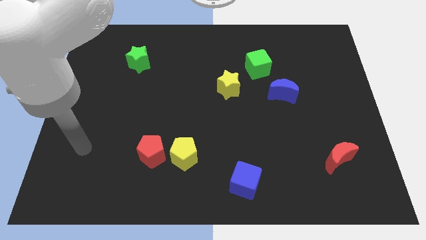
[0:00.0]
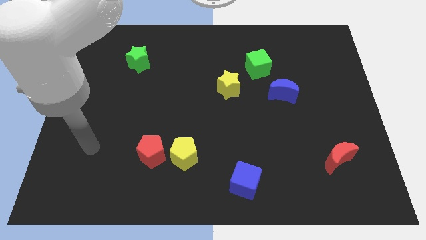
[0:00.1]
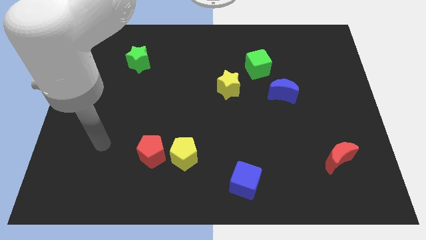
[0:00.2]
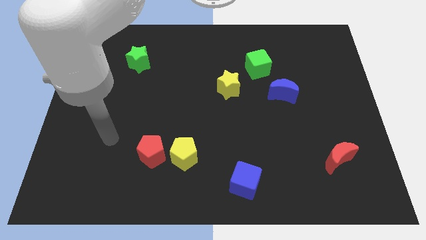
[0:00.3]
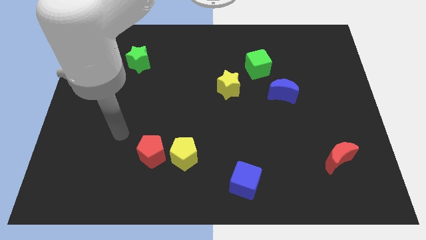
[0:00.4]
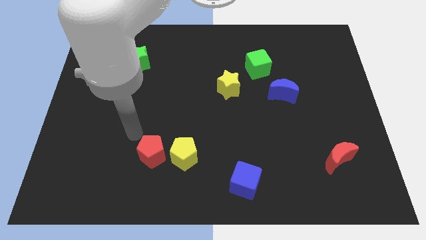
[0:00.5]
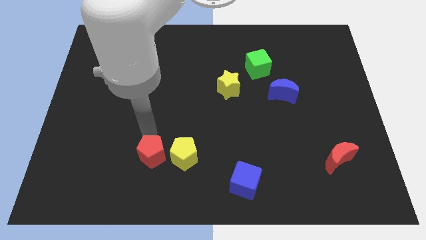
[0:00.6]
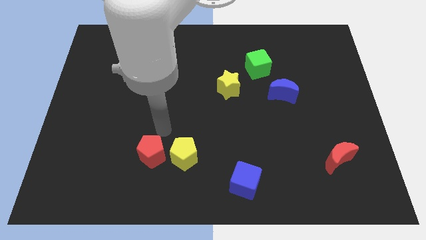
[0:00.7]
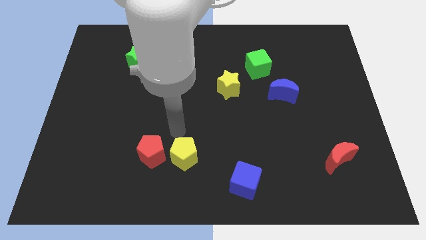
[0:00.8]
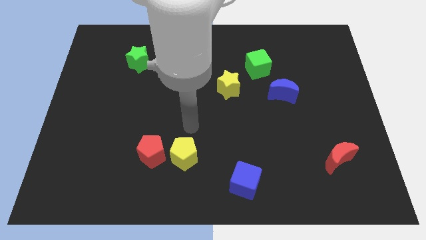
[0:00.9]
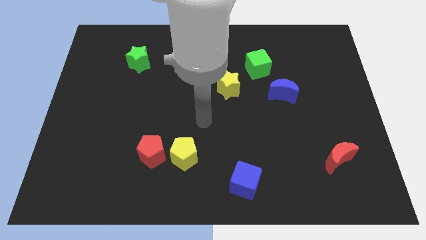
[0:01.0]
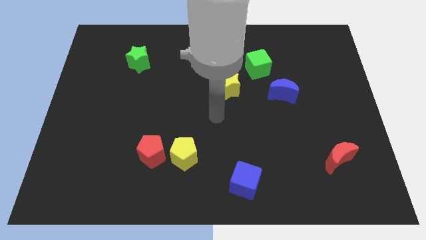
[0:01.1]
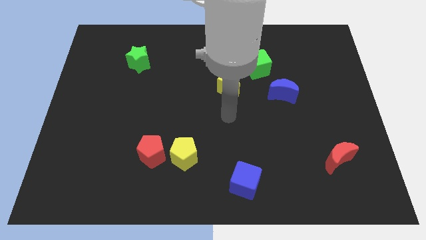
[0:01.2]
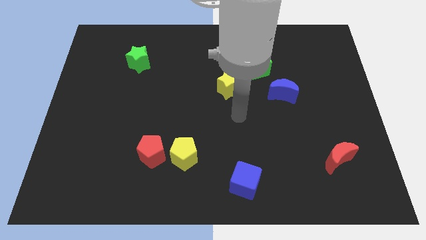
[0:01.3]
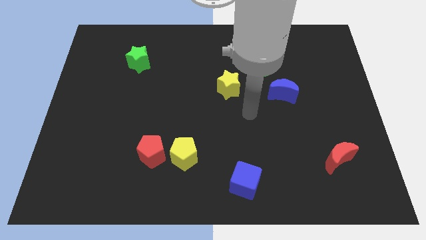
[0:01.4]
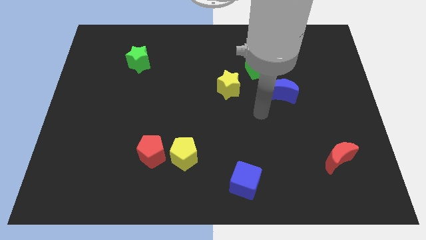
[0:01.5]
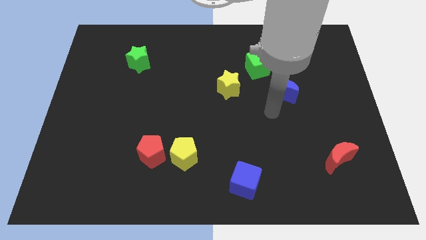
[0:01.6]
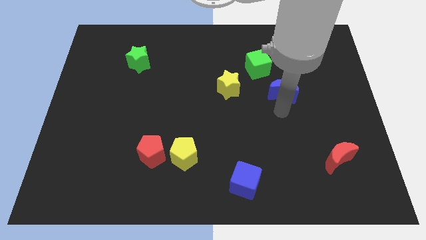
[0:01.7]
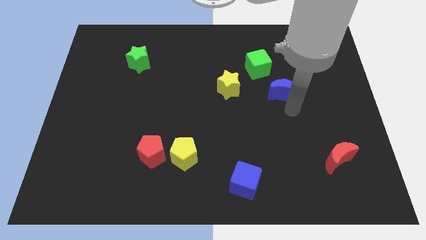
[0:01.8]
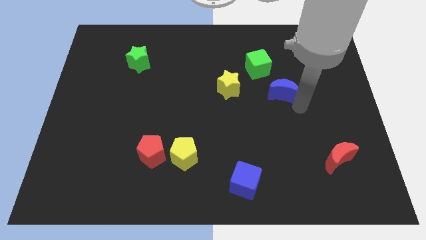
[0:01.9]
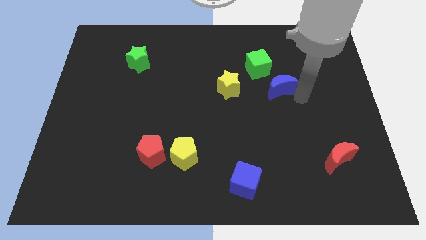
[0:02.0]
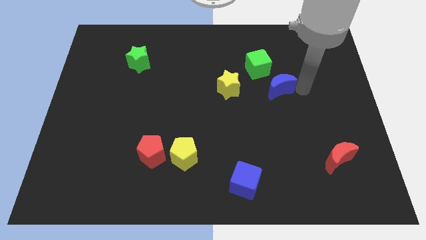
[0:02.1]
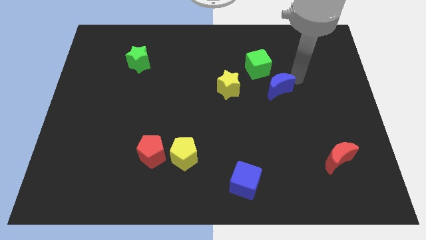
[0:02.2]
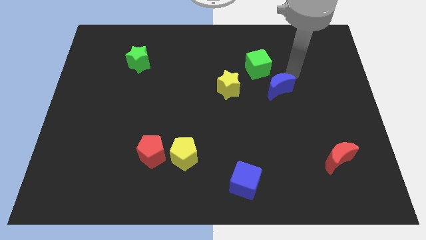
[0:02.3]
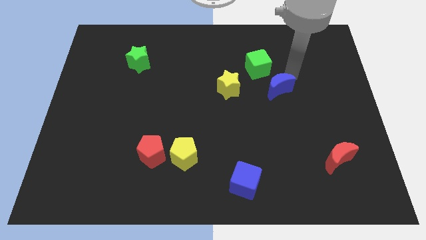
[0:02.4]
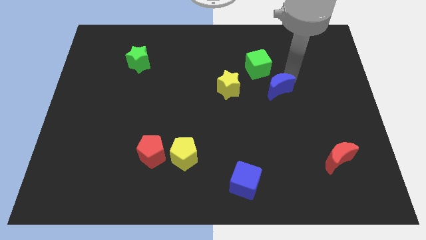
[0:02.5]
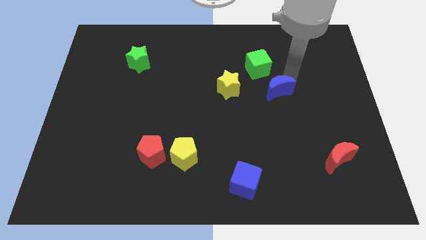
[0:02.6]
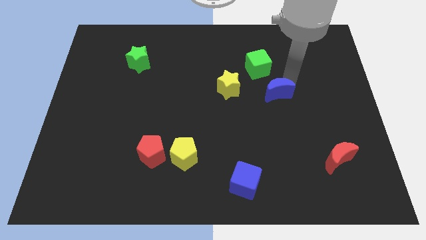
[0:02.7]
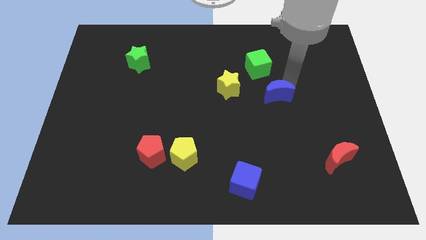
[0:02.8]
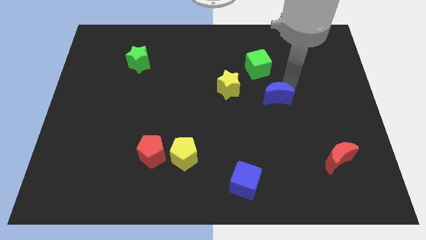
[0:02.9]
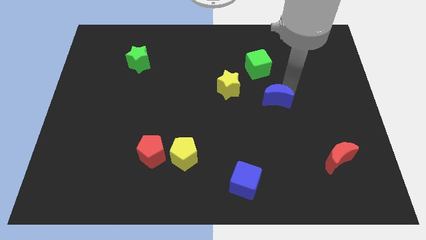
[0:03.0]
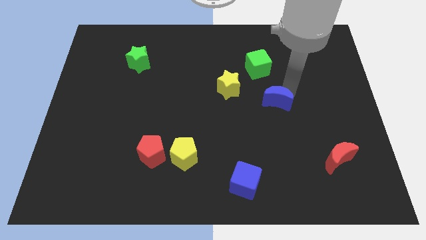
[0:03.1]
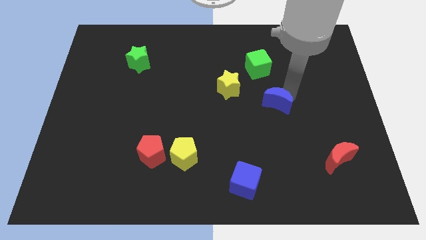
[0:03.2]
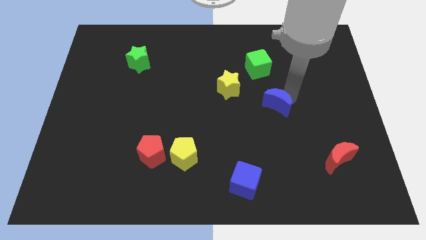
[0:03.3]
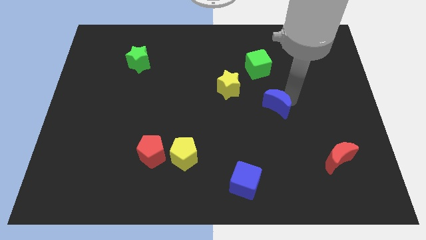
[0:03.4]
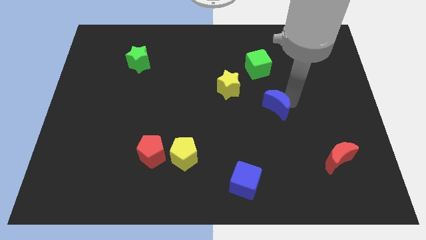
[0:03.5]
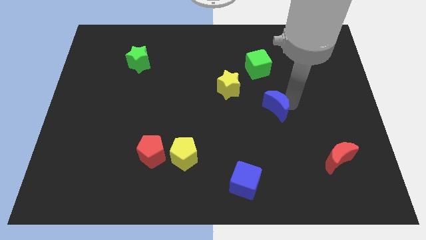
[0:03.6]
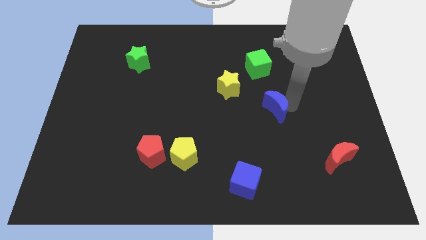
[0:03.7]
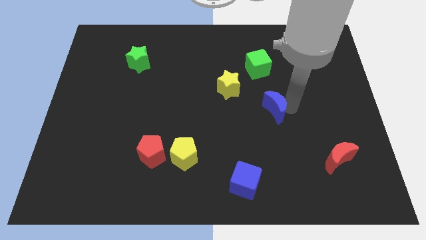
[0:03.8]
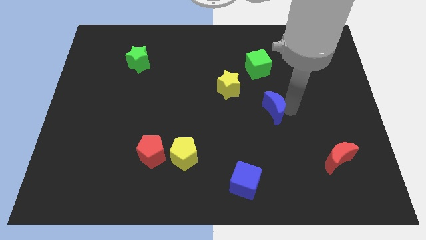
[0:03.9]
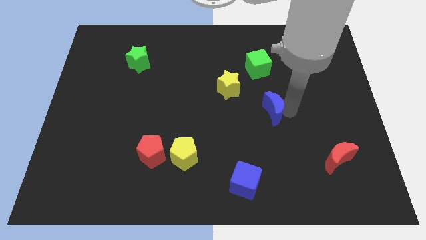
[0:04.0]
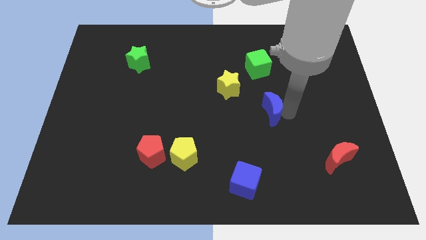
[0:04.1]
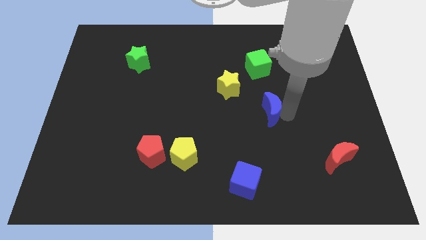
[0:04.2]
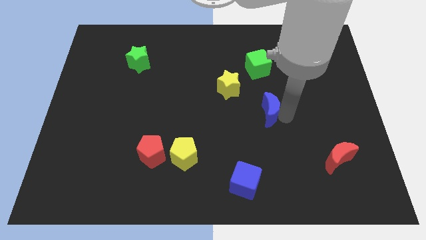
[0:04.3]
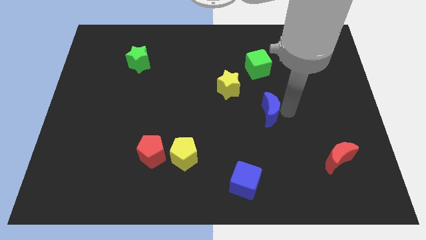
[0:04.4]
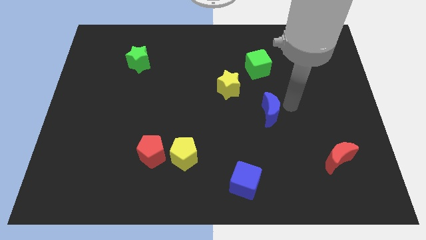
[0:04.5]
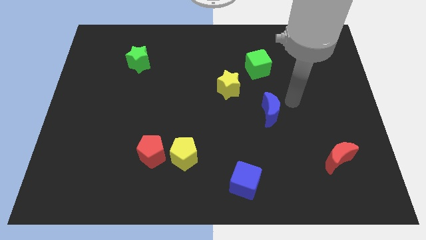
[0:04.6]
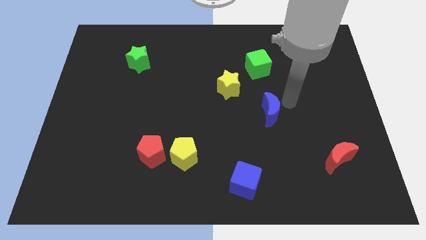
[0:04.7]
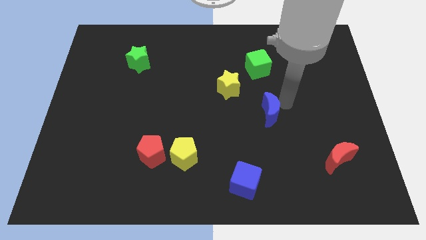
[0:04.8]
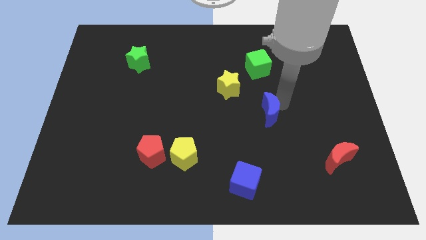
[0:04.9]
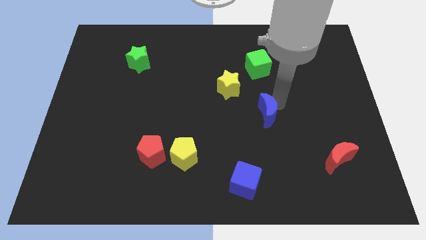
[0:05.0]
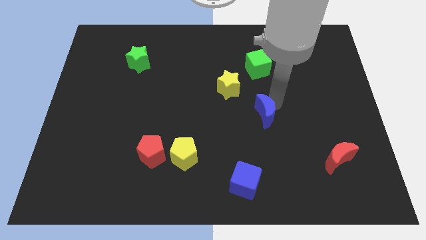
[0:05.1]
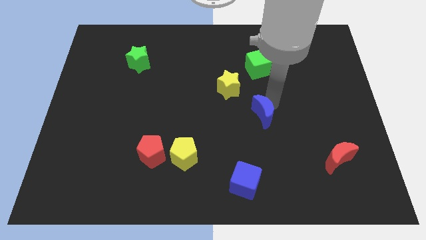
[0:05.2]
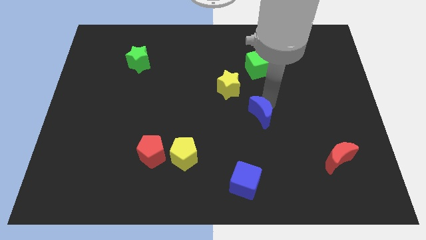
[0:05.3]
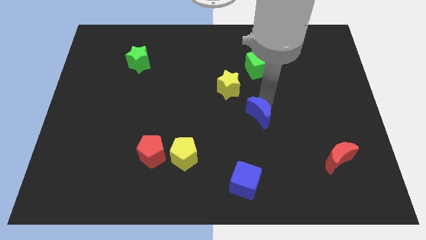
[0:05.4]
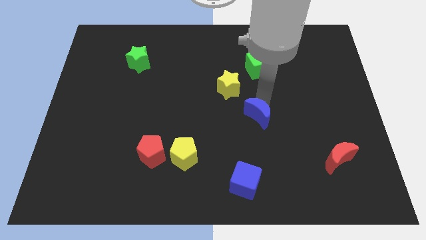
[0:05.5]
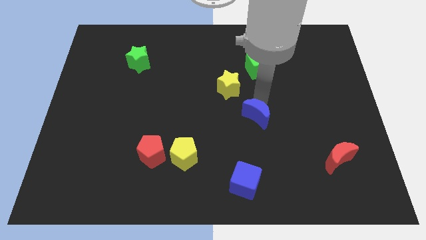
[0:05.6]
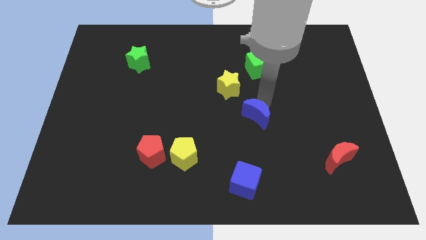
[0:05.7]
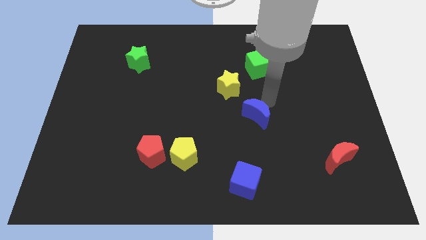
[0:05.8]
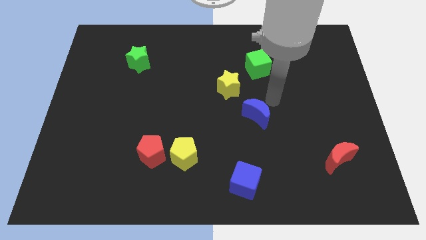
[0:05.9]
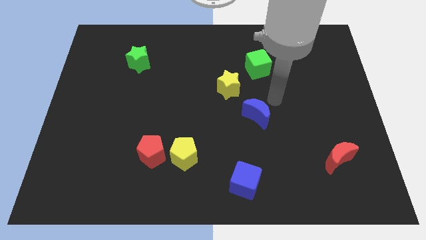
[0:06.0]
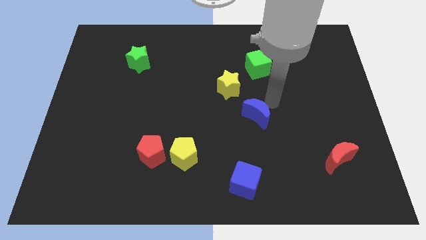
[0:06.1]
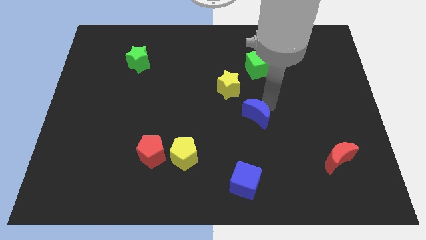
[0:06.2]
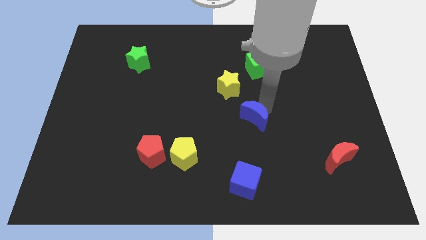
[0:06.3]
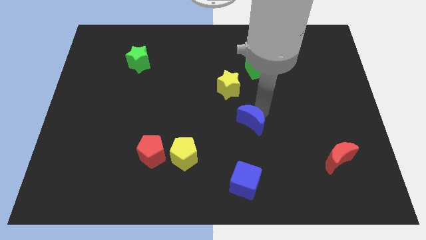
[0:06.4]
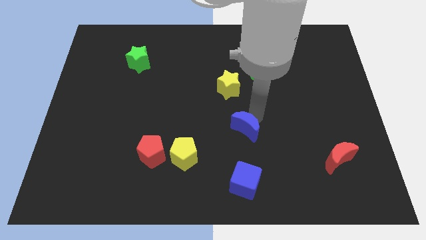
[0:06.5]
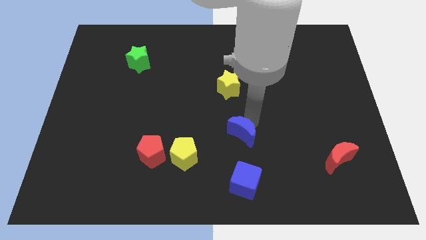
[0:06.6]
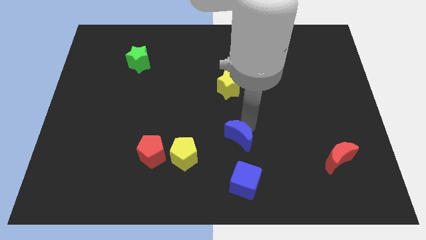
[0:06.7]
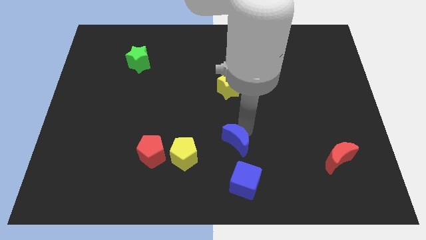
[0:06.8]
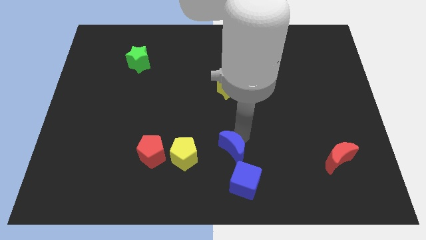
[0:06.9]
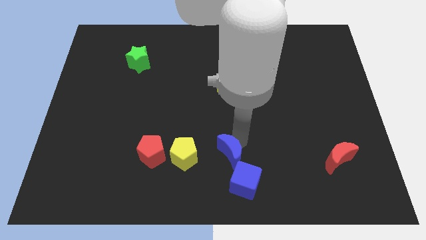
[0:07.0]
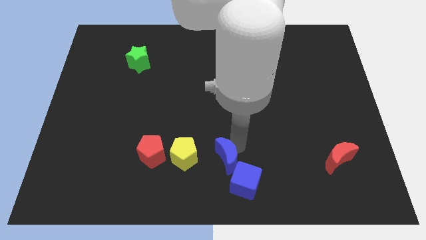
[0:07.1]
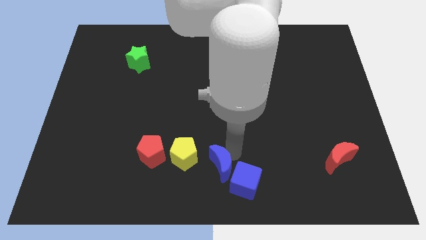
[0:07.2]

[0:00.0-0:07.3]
push the blue moon left of the blue cube
